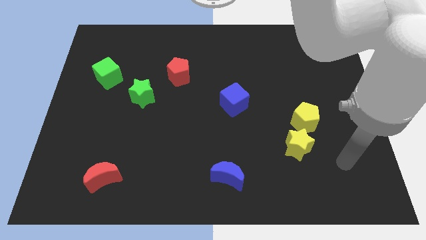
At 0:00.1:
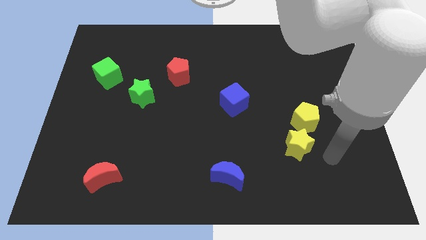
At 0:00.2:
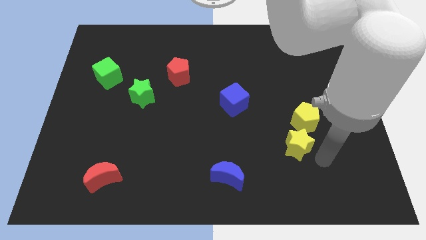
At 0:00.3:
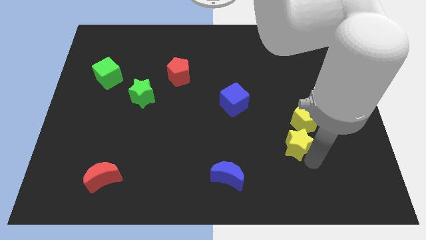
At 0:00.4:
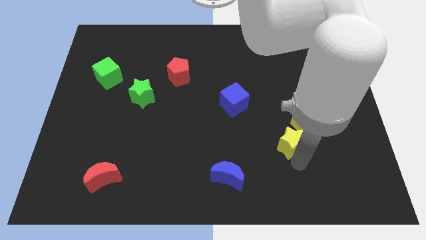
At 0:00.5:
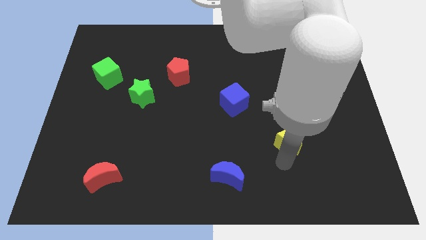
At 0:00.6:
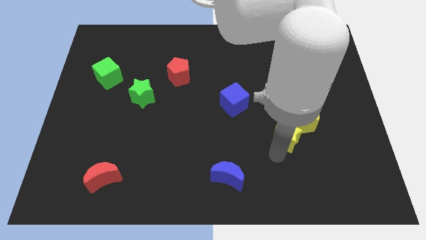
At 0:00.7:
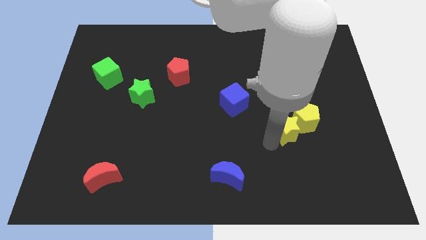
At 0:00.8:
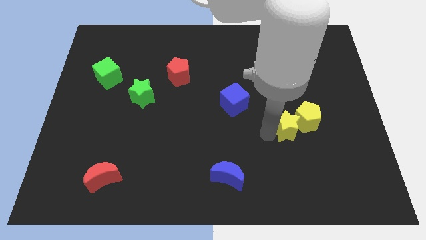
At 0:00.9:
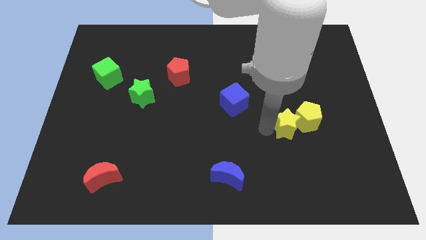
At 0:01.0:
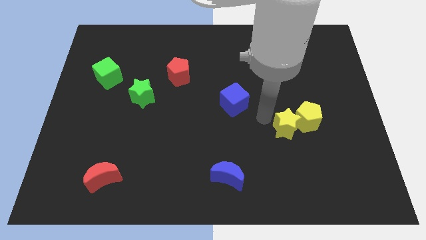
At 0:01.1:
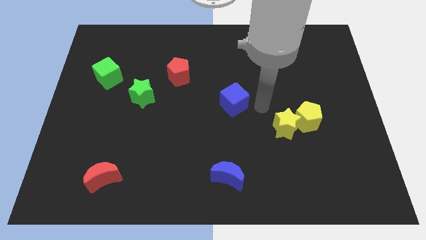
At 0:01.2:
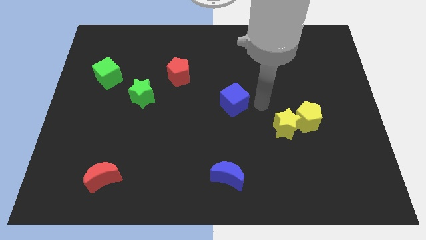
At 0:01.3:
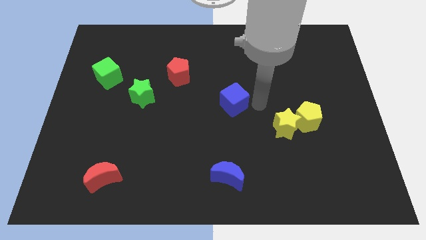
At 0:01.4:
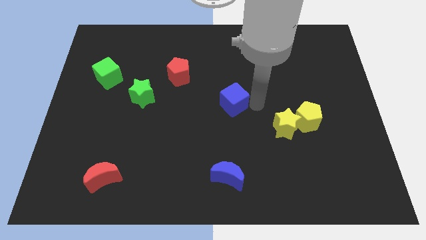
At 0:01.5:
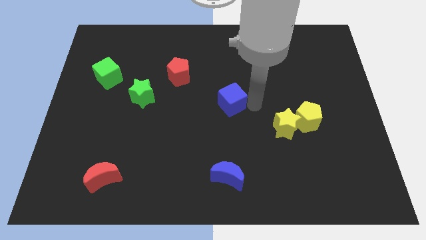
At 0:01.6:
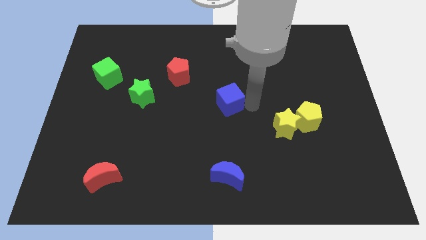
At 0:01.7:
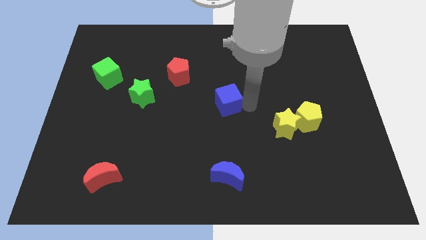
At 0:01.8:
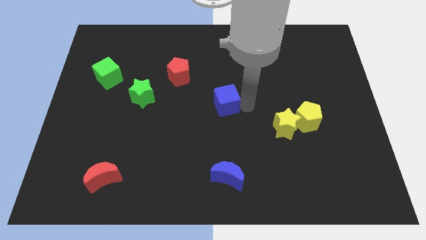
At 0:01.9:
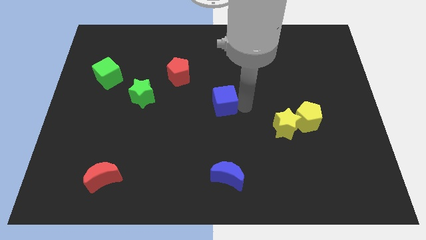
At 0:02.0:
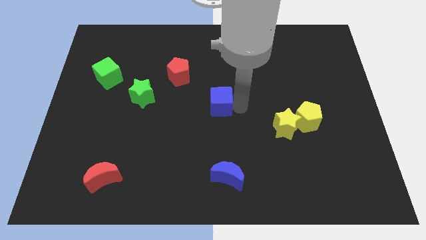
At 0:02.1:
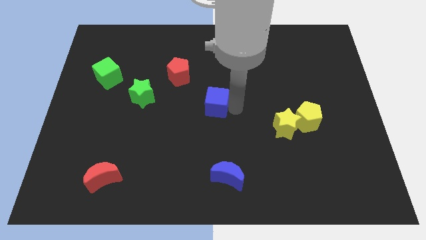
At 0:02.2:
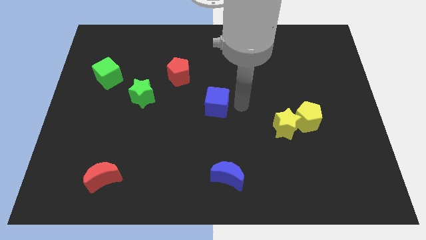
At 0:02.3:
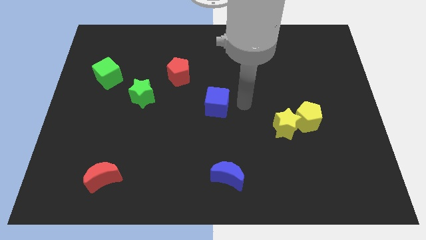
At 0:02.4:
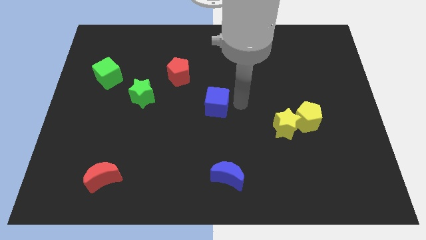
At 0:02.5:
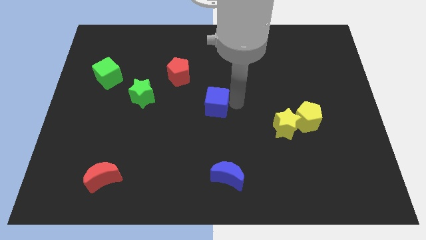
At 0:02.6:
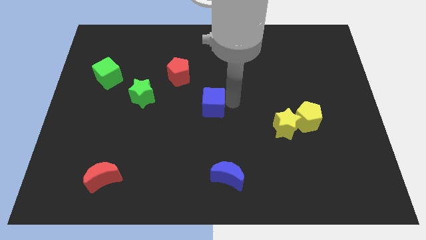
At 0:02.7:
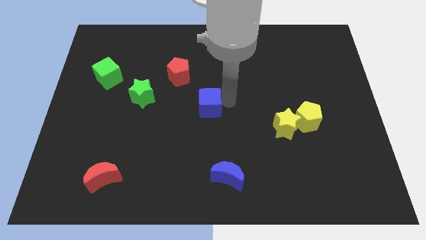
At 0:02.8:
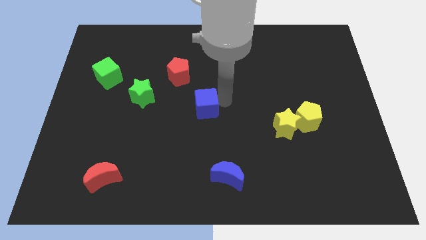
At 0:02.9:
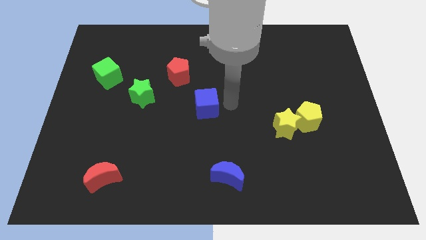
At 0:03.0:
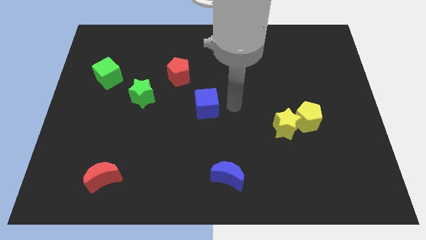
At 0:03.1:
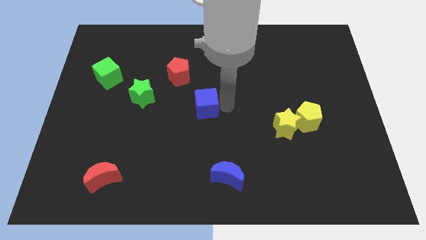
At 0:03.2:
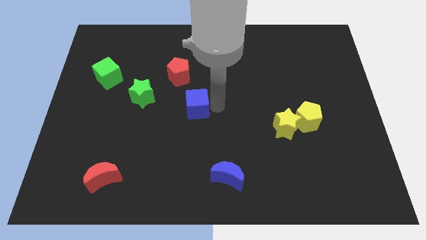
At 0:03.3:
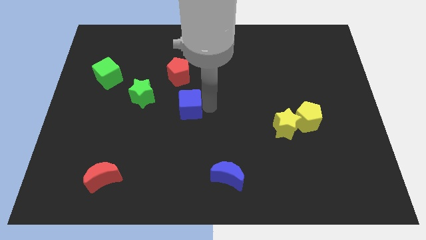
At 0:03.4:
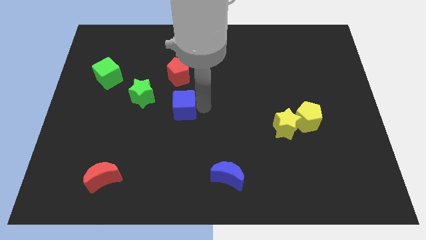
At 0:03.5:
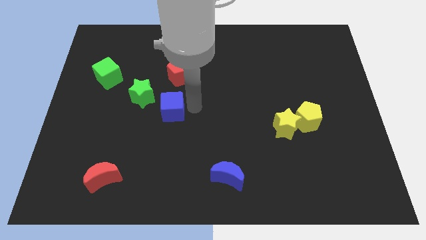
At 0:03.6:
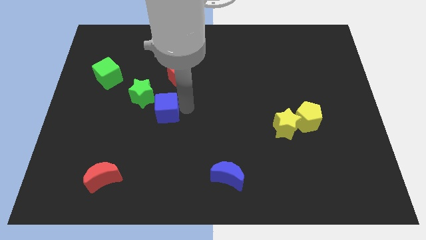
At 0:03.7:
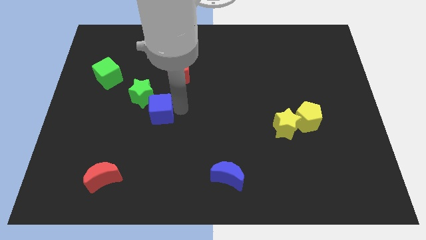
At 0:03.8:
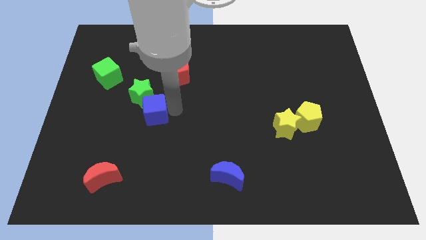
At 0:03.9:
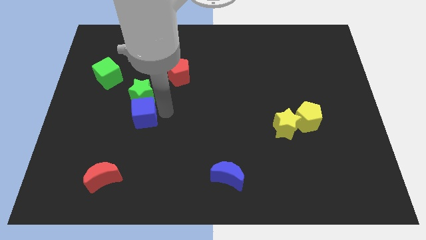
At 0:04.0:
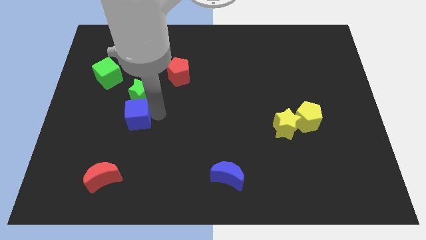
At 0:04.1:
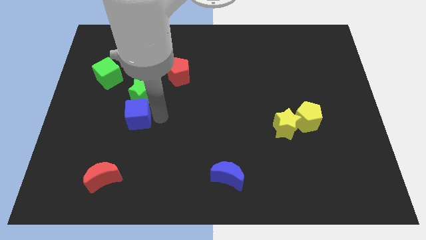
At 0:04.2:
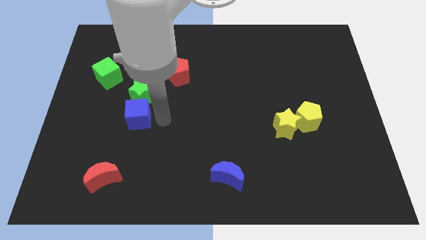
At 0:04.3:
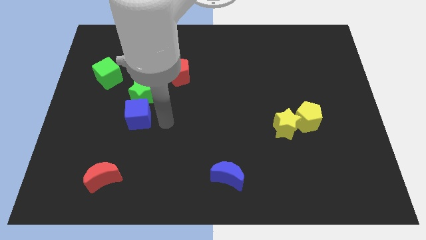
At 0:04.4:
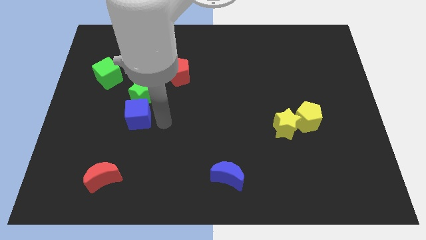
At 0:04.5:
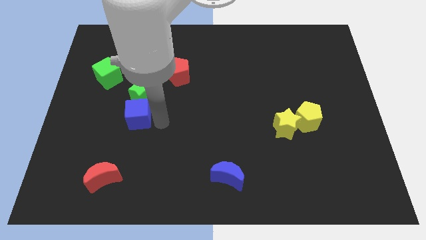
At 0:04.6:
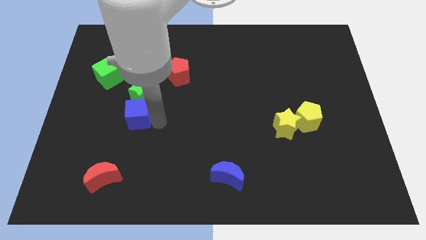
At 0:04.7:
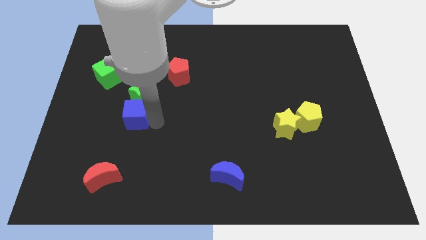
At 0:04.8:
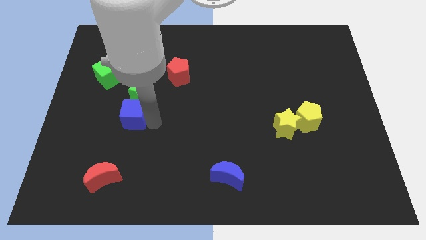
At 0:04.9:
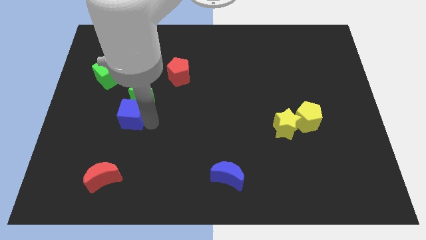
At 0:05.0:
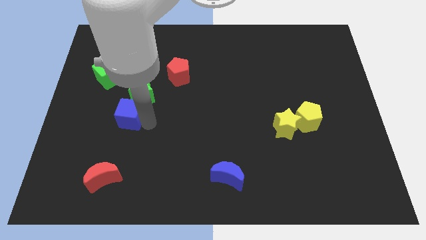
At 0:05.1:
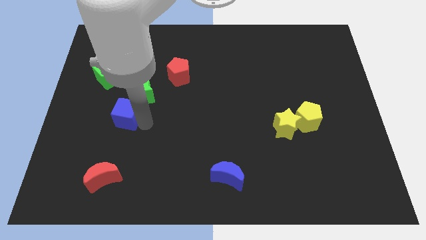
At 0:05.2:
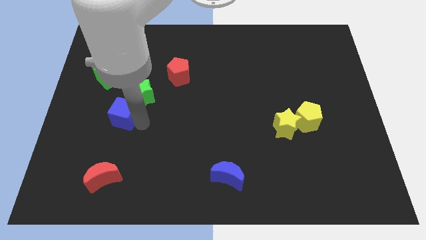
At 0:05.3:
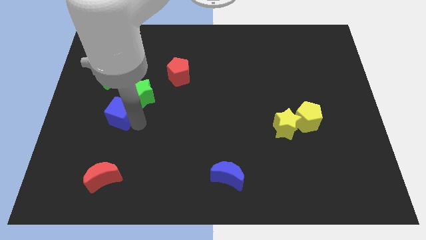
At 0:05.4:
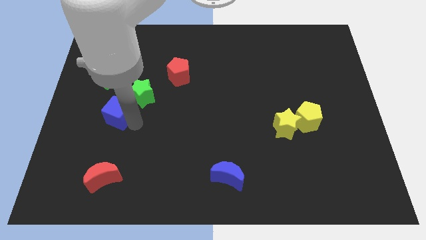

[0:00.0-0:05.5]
push the blue cube to the bottom side of the green cube
